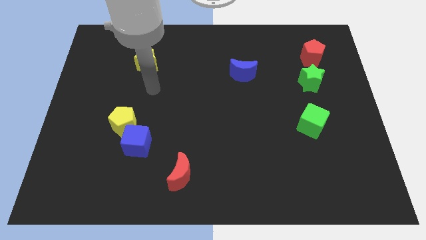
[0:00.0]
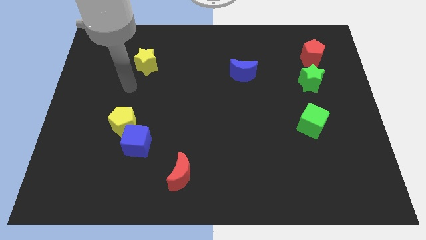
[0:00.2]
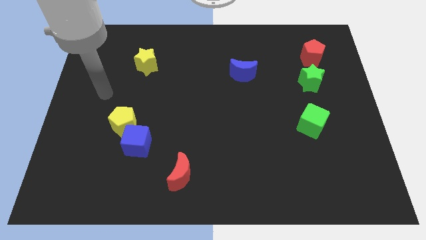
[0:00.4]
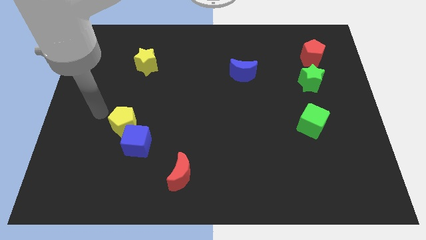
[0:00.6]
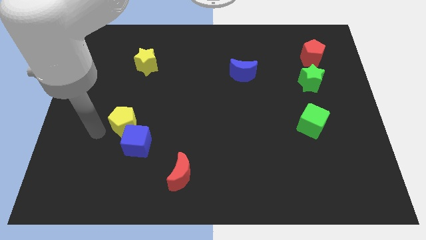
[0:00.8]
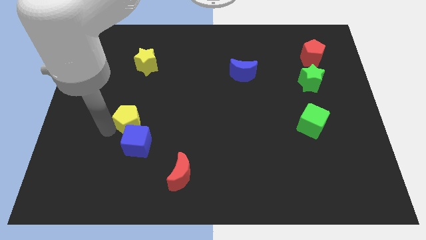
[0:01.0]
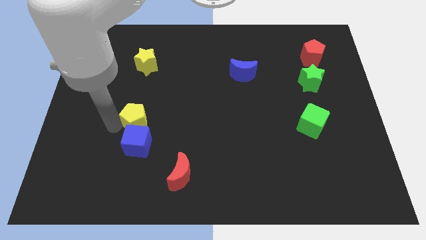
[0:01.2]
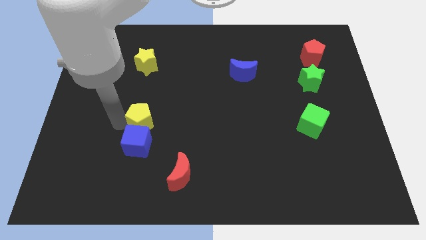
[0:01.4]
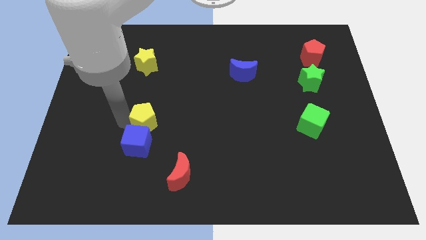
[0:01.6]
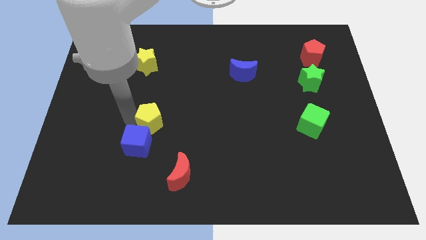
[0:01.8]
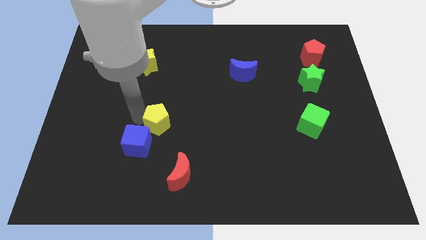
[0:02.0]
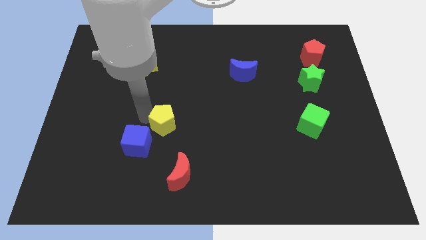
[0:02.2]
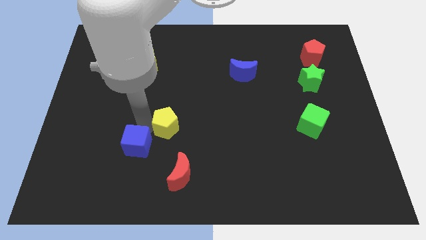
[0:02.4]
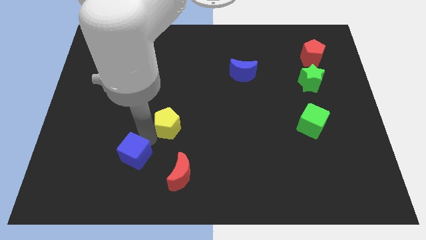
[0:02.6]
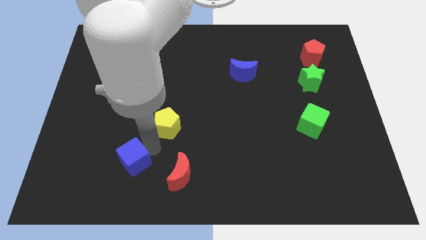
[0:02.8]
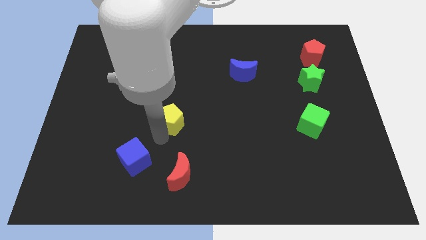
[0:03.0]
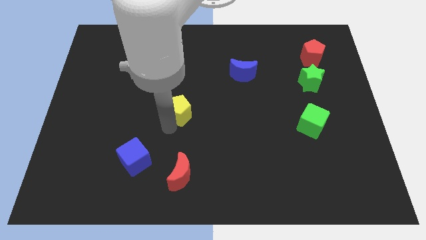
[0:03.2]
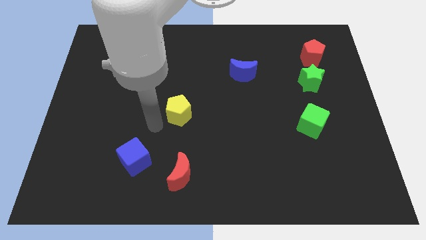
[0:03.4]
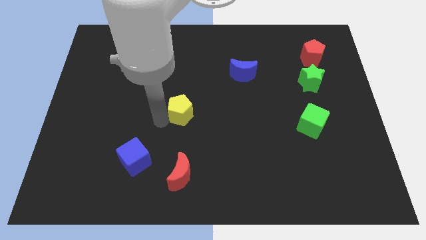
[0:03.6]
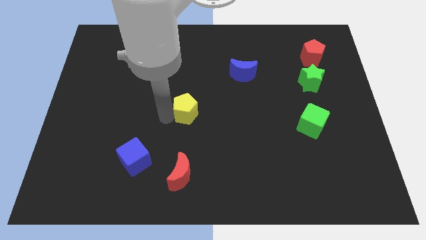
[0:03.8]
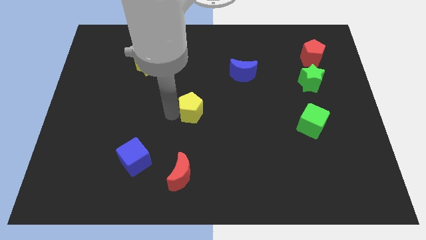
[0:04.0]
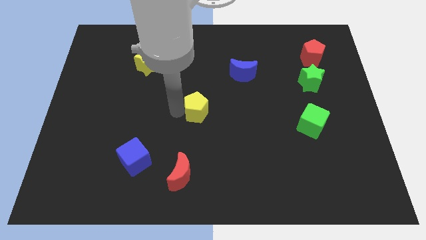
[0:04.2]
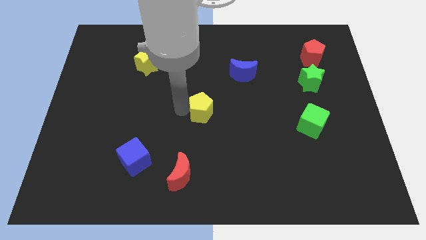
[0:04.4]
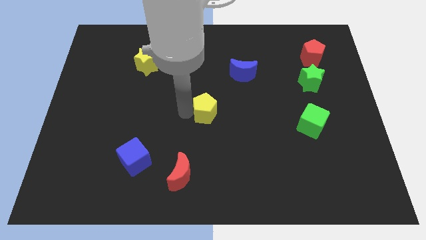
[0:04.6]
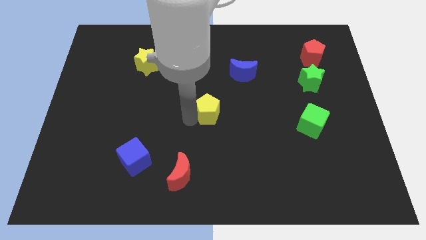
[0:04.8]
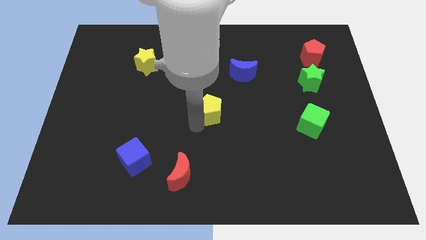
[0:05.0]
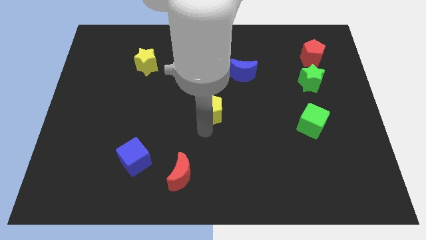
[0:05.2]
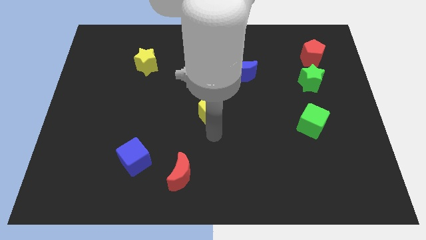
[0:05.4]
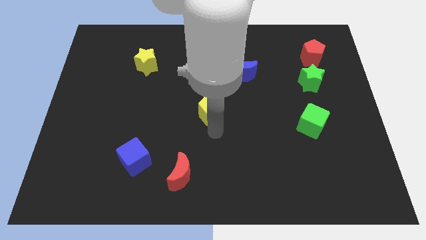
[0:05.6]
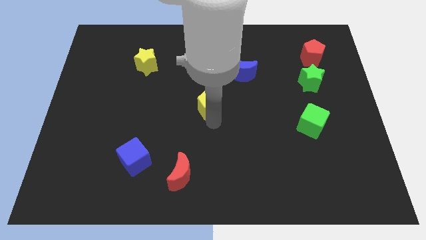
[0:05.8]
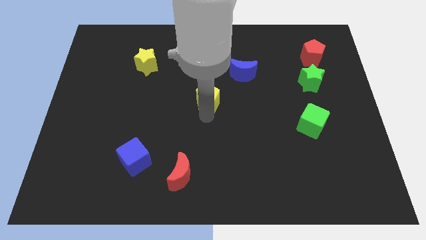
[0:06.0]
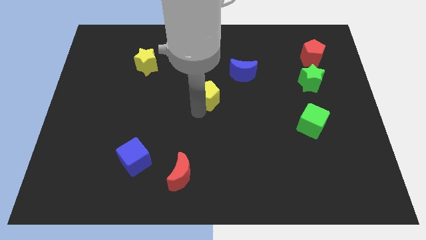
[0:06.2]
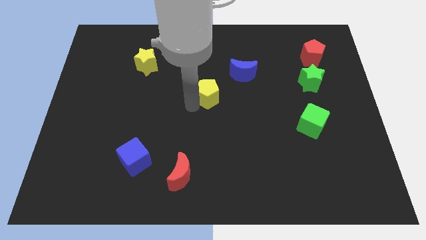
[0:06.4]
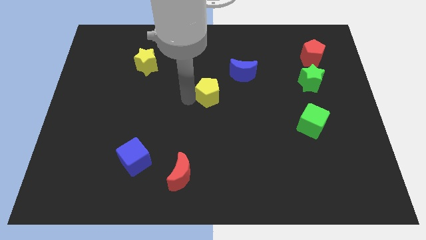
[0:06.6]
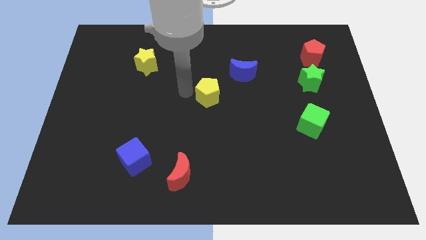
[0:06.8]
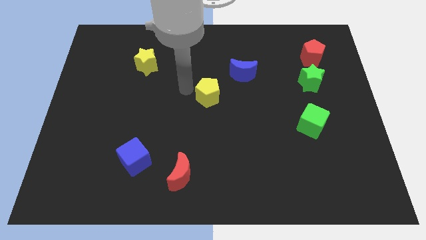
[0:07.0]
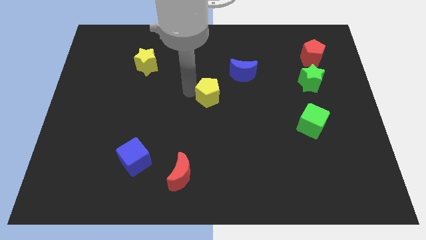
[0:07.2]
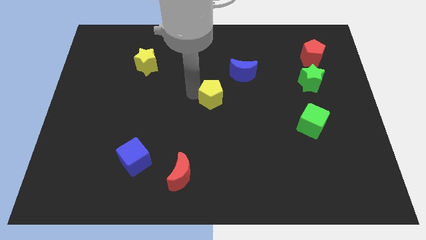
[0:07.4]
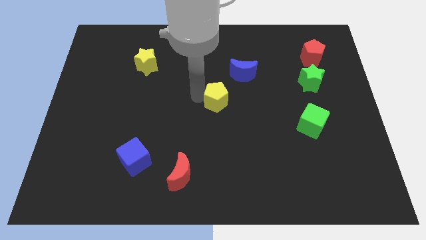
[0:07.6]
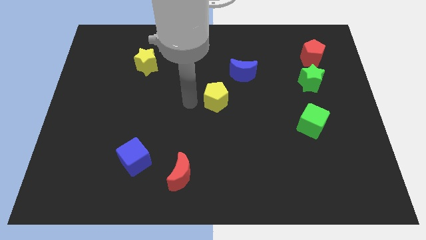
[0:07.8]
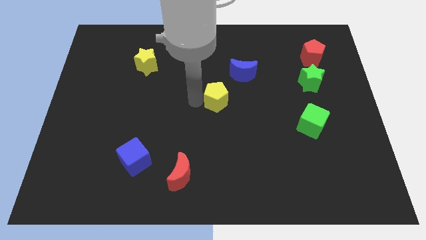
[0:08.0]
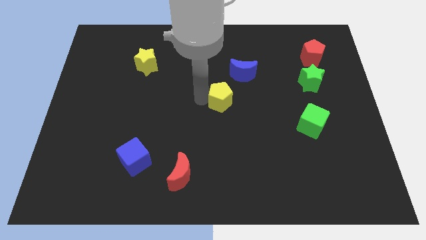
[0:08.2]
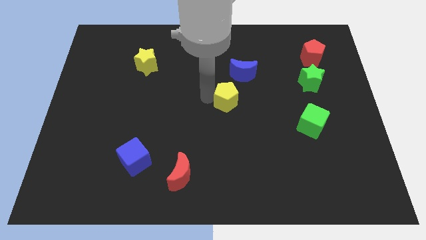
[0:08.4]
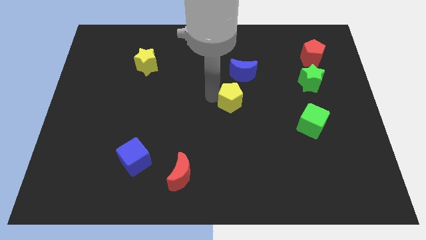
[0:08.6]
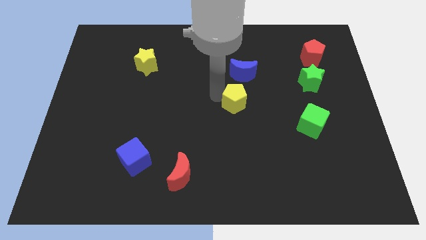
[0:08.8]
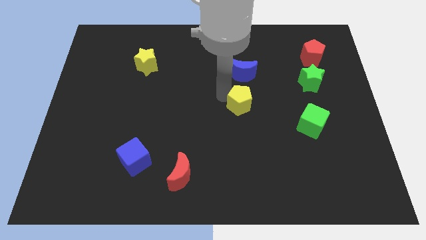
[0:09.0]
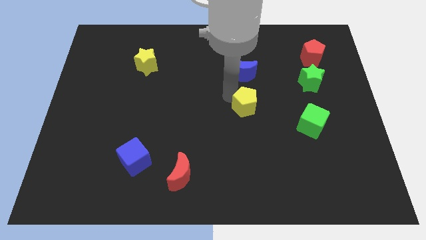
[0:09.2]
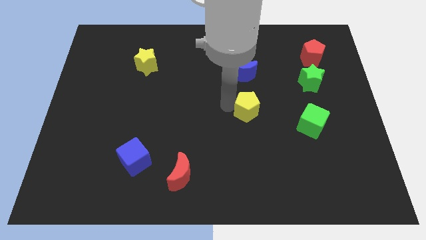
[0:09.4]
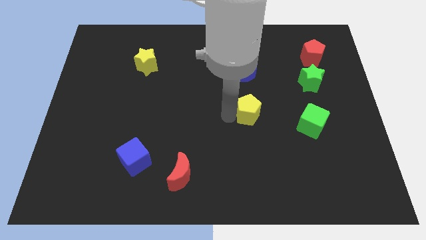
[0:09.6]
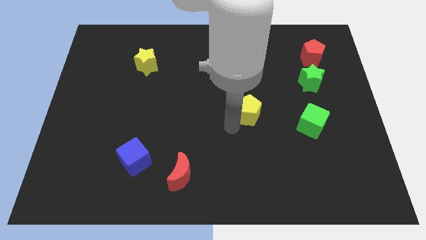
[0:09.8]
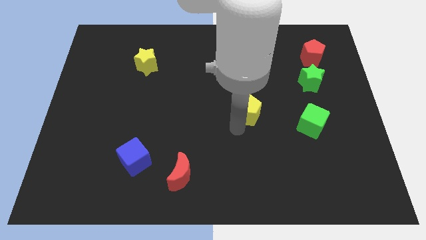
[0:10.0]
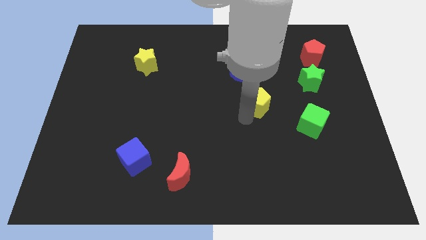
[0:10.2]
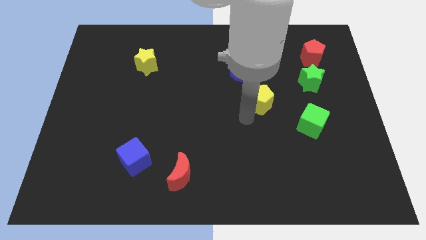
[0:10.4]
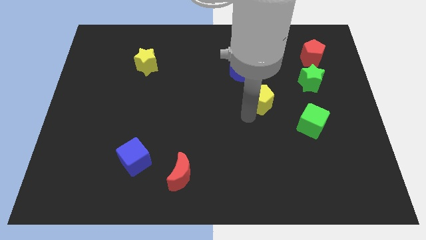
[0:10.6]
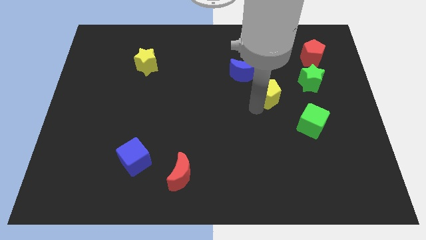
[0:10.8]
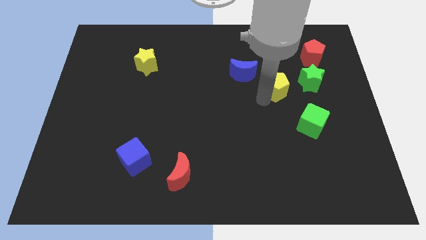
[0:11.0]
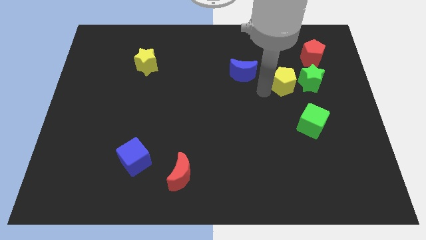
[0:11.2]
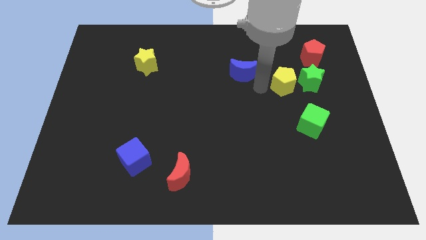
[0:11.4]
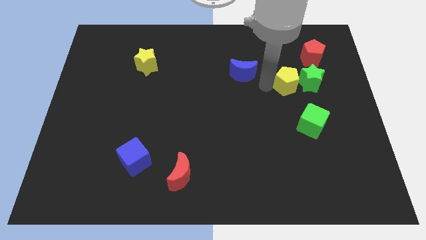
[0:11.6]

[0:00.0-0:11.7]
put the yellow pentagon to the green star

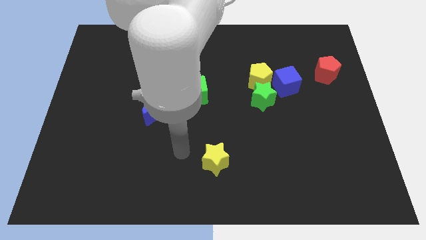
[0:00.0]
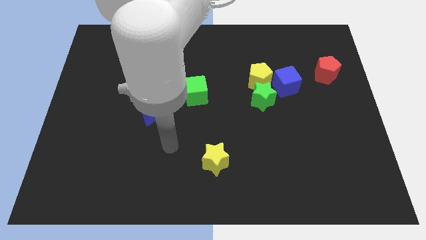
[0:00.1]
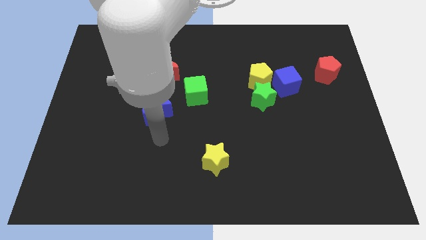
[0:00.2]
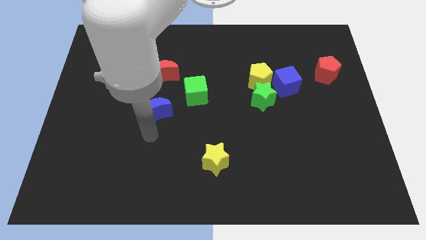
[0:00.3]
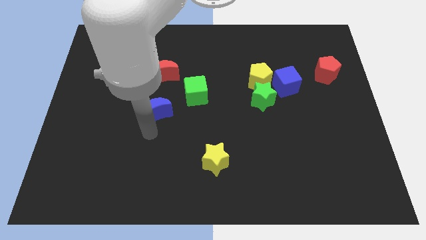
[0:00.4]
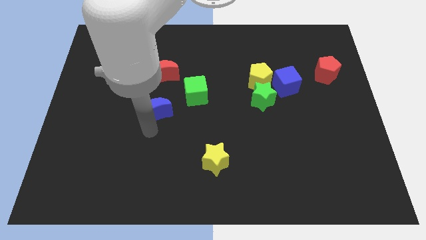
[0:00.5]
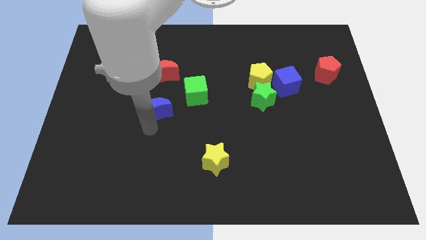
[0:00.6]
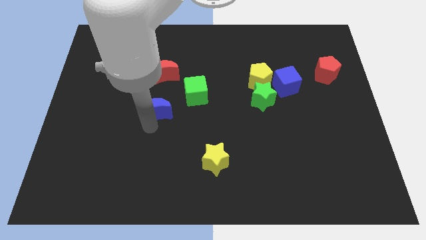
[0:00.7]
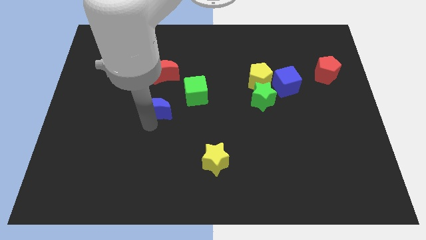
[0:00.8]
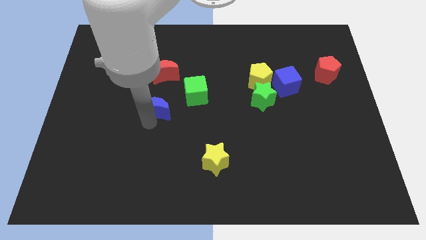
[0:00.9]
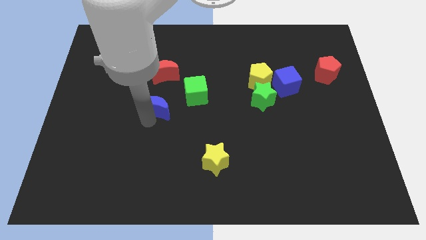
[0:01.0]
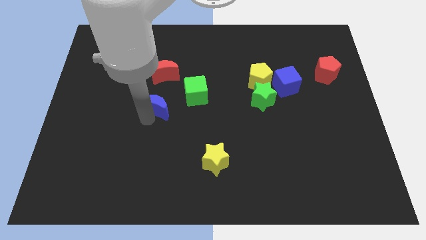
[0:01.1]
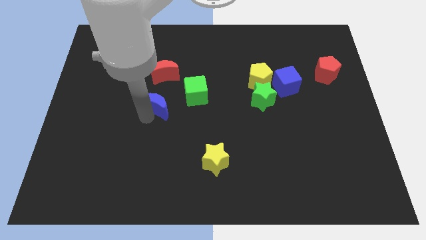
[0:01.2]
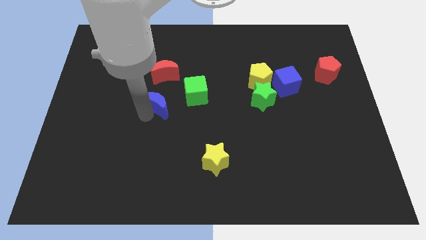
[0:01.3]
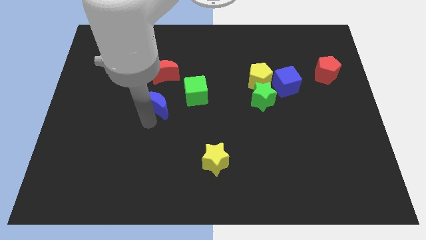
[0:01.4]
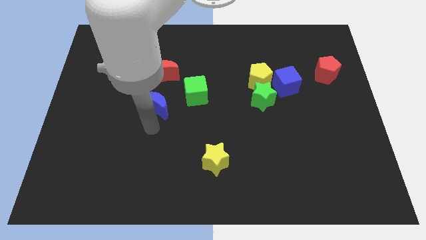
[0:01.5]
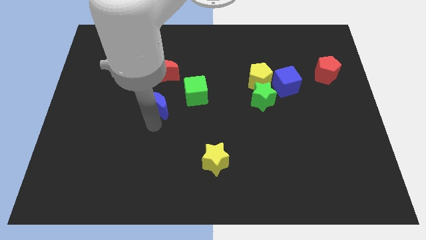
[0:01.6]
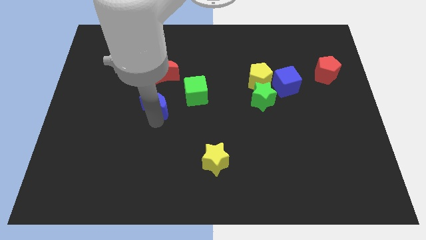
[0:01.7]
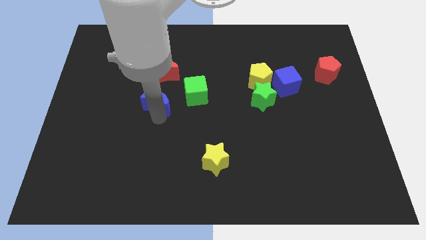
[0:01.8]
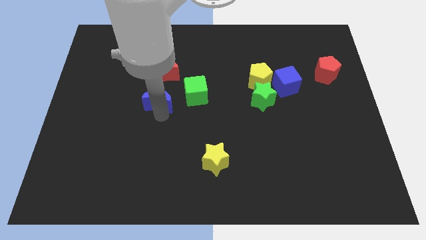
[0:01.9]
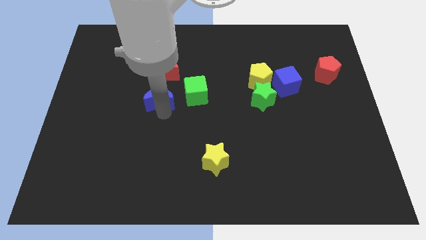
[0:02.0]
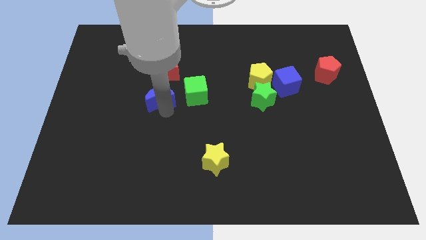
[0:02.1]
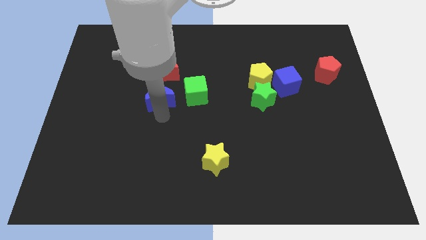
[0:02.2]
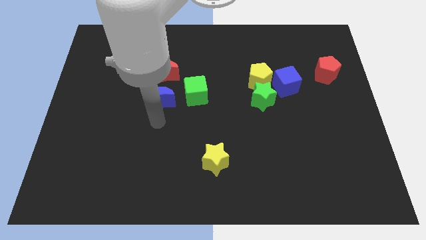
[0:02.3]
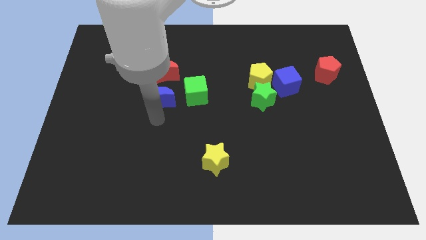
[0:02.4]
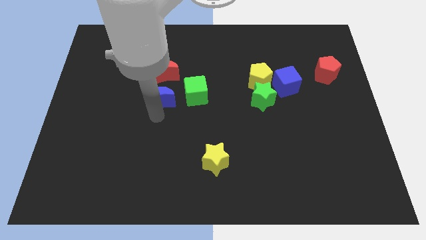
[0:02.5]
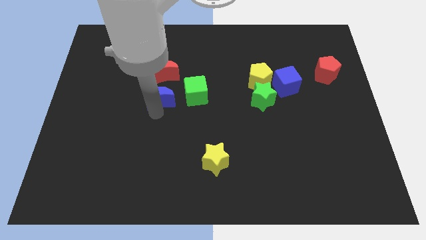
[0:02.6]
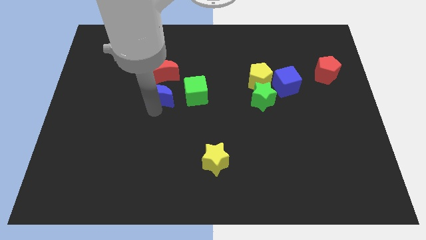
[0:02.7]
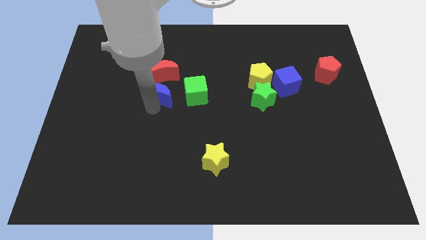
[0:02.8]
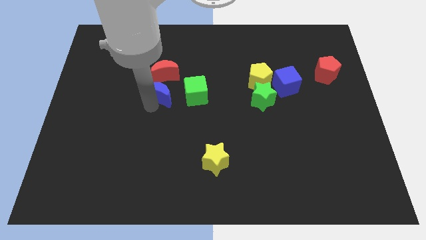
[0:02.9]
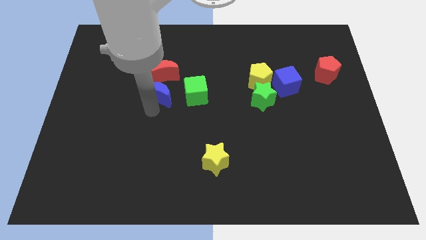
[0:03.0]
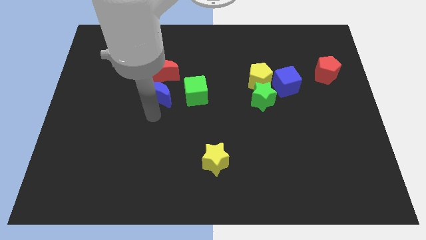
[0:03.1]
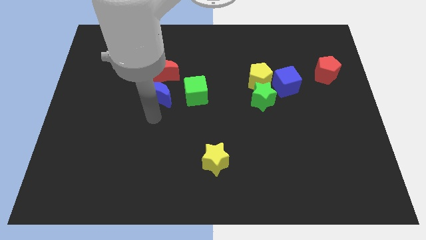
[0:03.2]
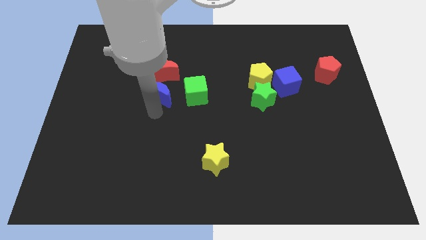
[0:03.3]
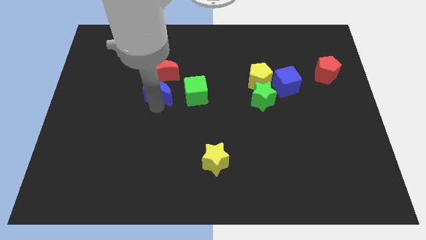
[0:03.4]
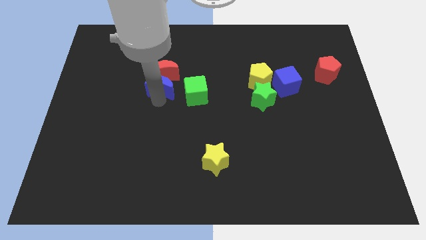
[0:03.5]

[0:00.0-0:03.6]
slide the blue moon towards the red moon
